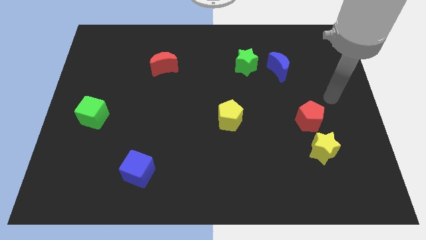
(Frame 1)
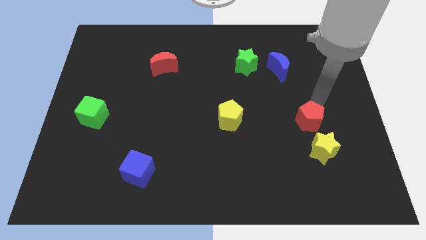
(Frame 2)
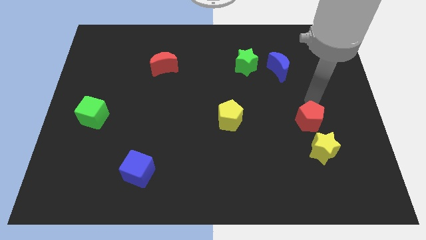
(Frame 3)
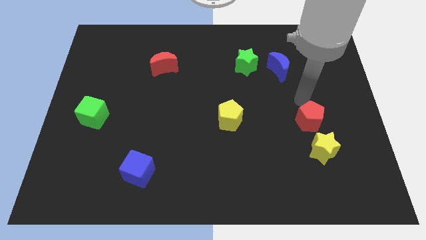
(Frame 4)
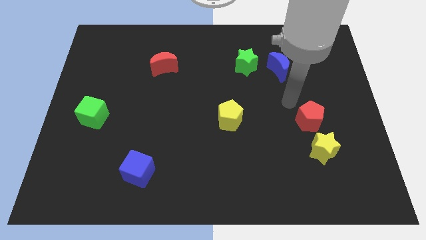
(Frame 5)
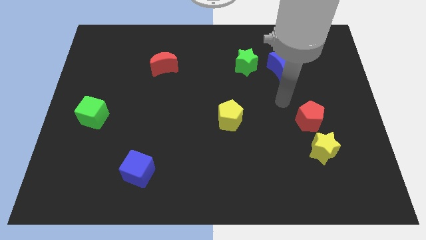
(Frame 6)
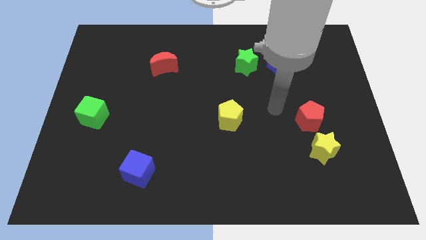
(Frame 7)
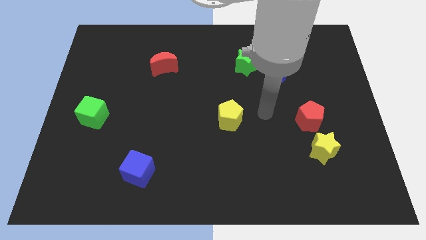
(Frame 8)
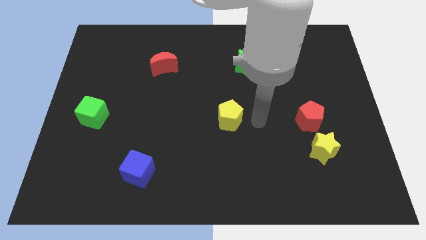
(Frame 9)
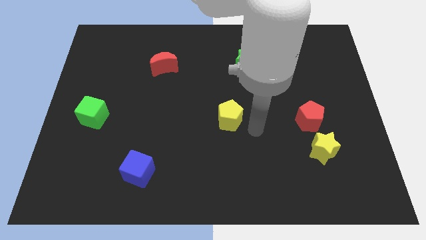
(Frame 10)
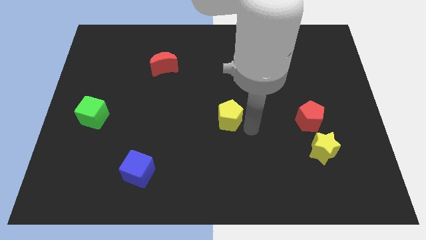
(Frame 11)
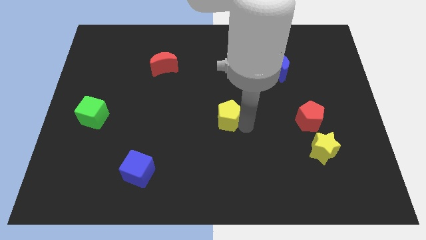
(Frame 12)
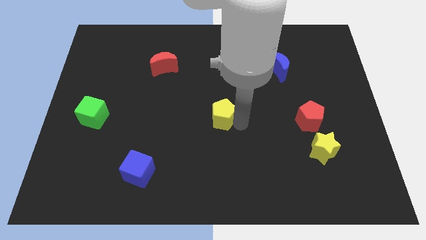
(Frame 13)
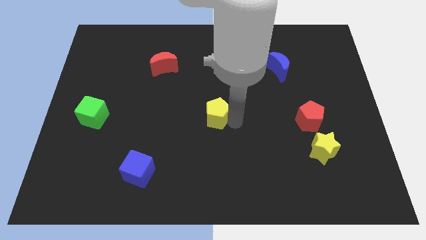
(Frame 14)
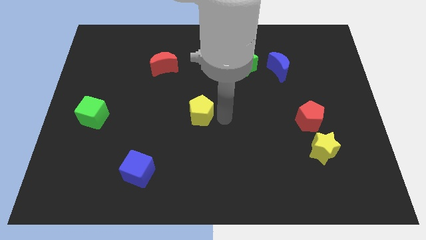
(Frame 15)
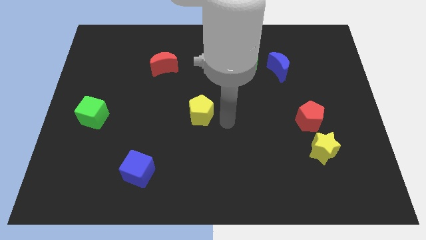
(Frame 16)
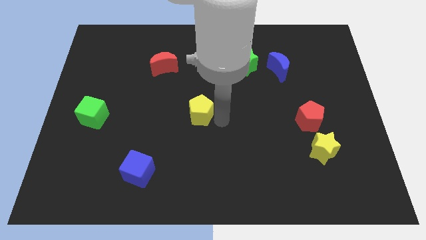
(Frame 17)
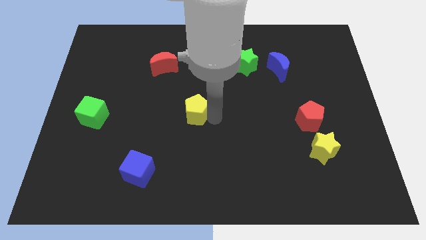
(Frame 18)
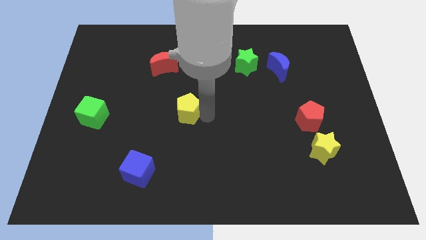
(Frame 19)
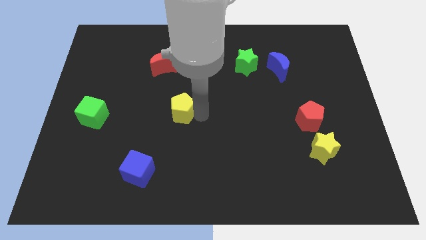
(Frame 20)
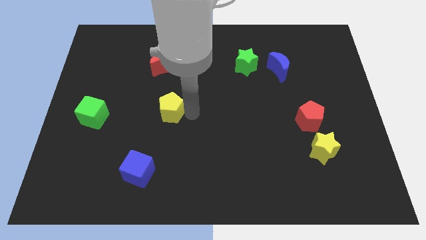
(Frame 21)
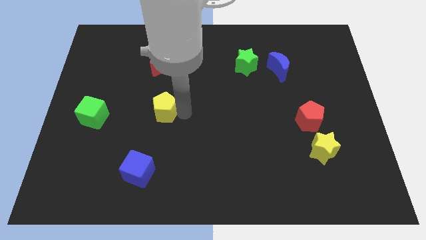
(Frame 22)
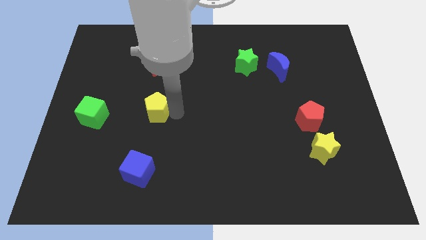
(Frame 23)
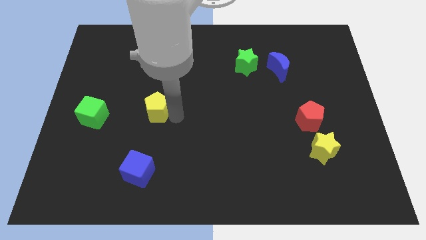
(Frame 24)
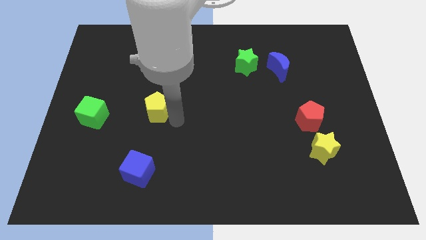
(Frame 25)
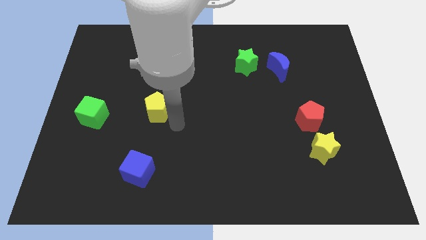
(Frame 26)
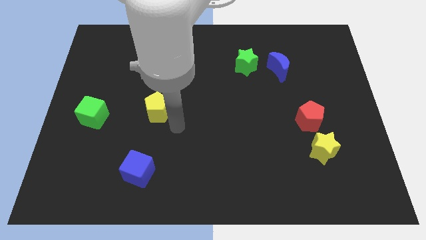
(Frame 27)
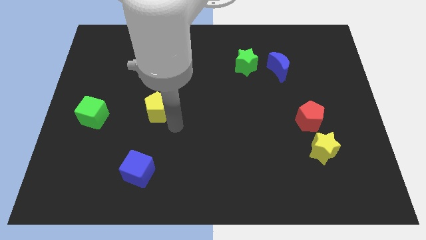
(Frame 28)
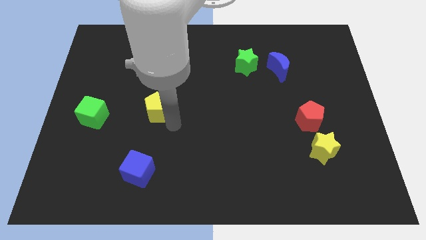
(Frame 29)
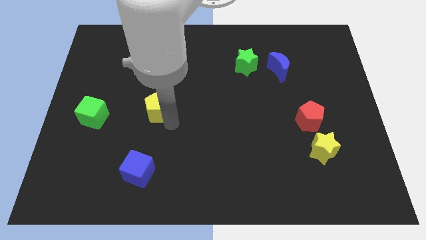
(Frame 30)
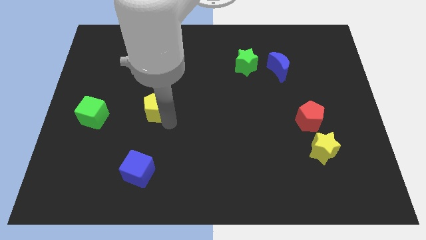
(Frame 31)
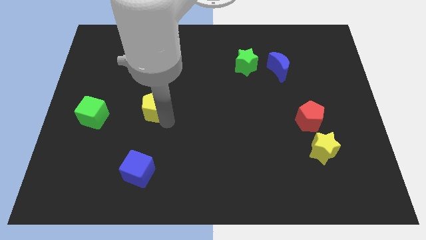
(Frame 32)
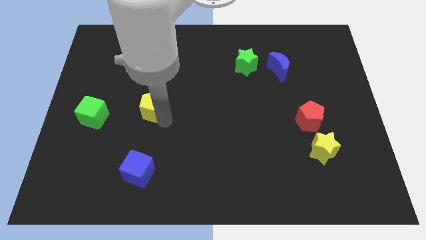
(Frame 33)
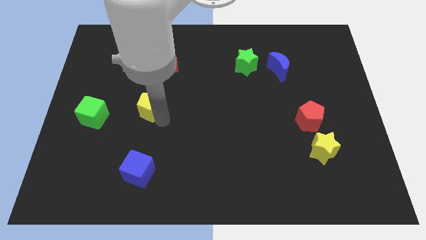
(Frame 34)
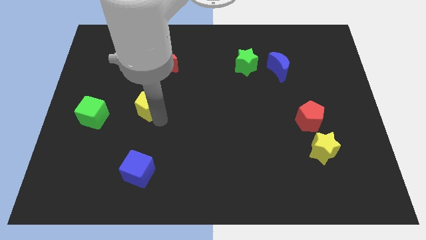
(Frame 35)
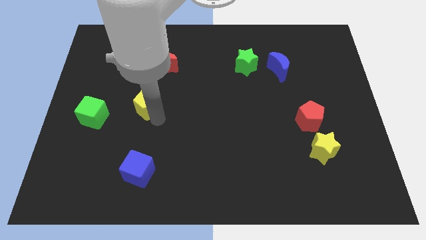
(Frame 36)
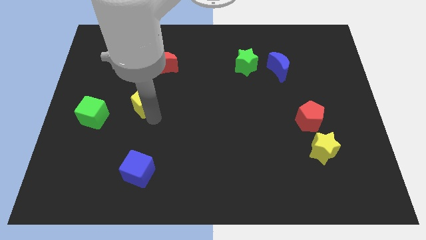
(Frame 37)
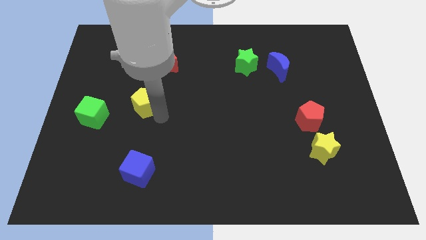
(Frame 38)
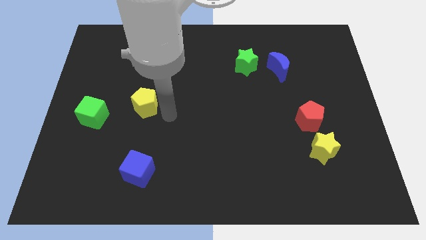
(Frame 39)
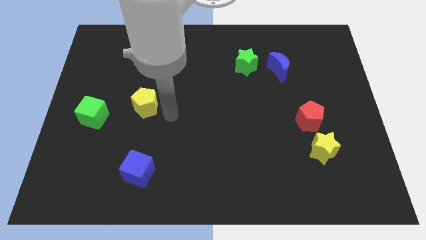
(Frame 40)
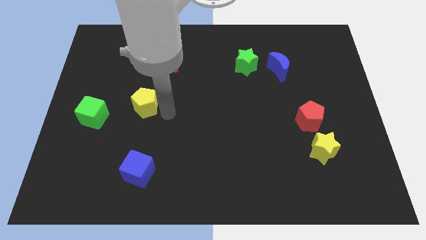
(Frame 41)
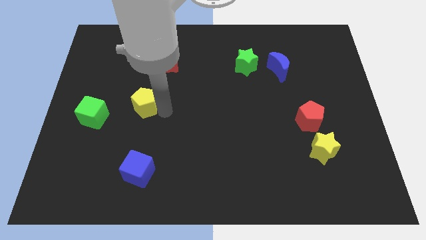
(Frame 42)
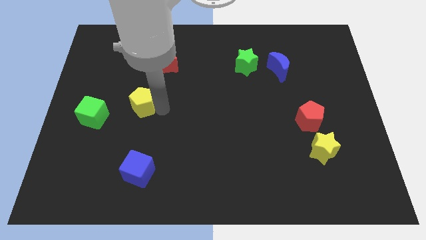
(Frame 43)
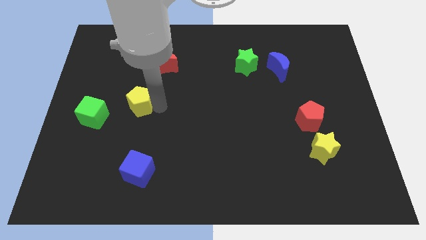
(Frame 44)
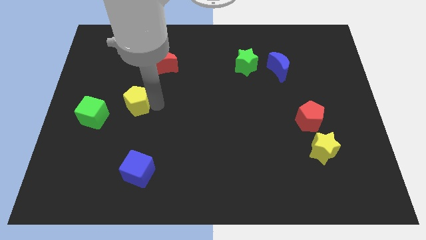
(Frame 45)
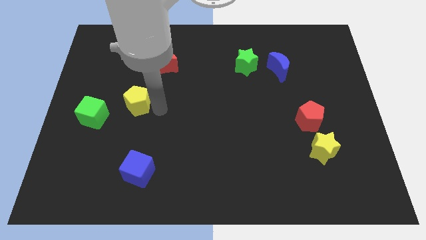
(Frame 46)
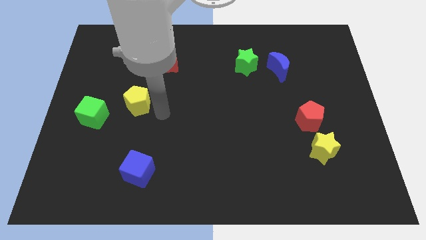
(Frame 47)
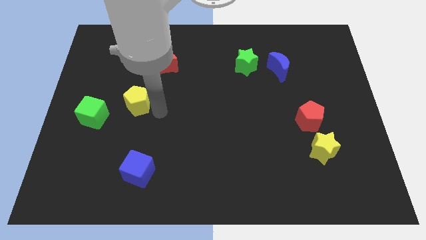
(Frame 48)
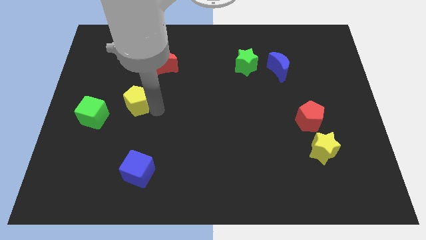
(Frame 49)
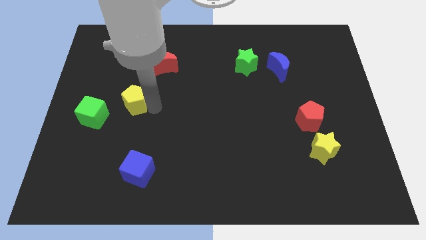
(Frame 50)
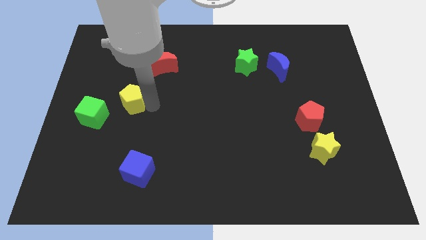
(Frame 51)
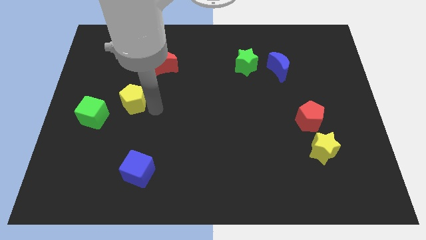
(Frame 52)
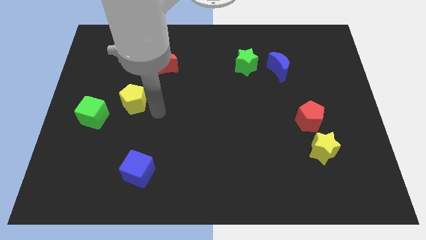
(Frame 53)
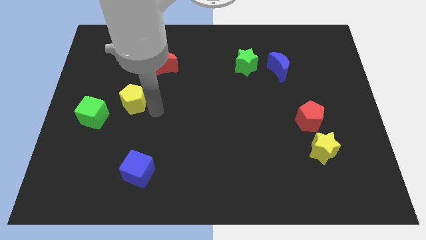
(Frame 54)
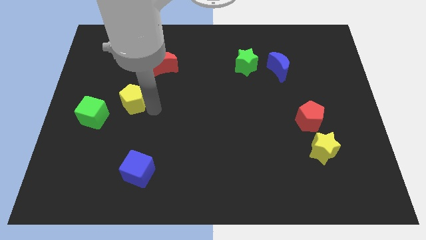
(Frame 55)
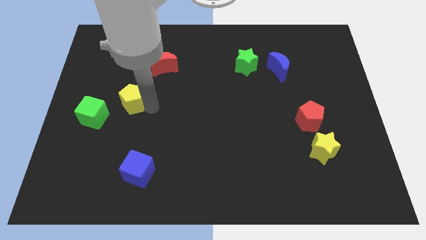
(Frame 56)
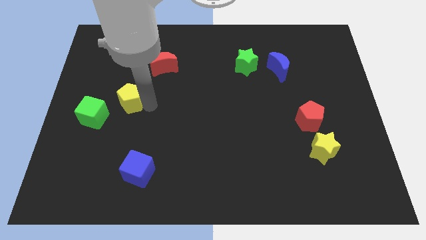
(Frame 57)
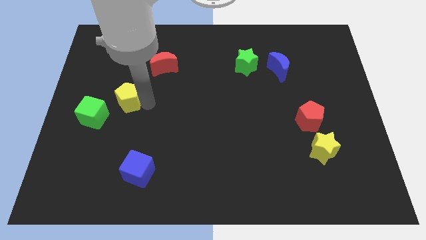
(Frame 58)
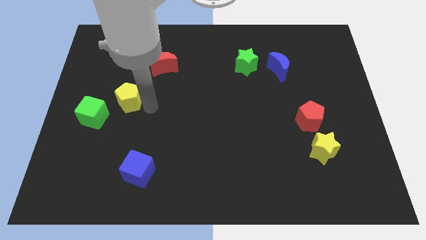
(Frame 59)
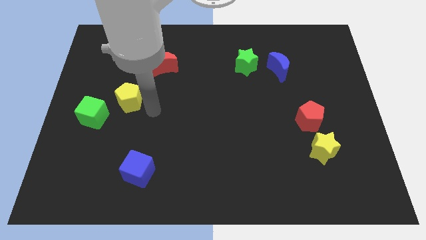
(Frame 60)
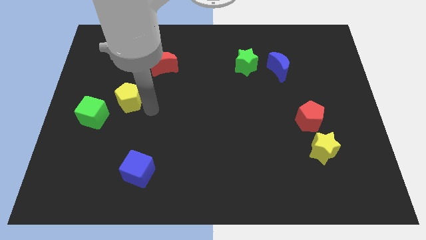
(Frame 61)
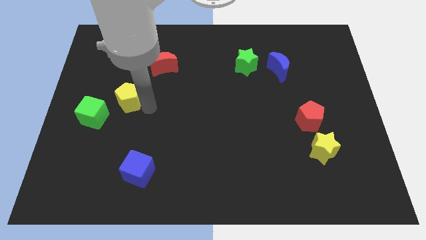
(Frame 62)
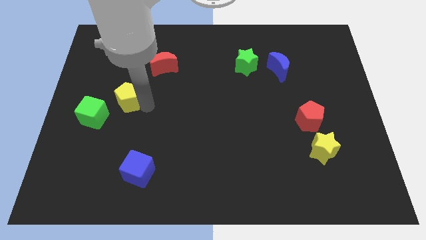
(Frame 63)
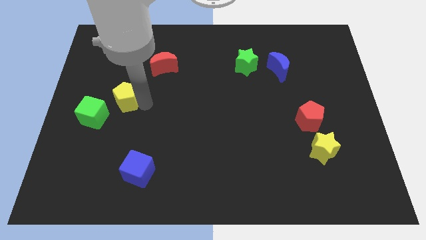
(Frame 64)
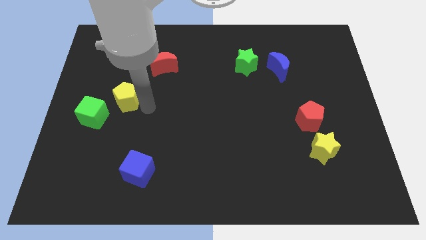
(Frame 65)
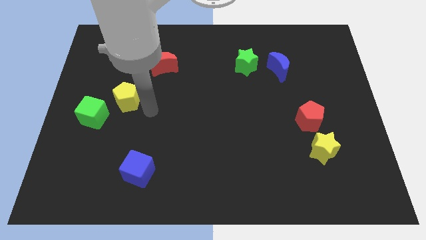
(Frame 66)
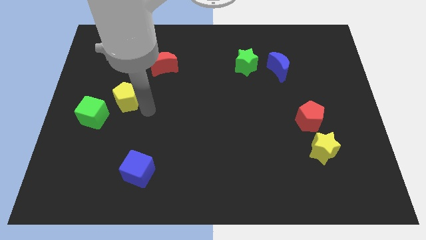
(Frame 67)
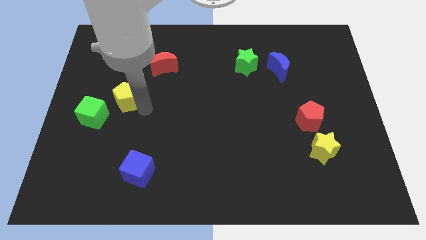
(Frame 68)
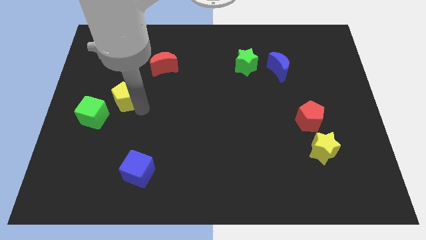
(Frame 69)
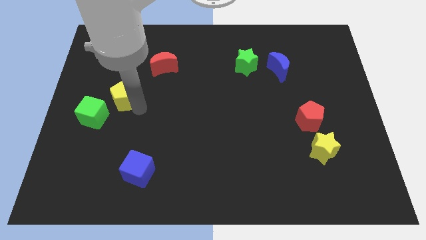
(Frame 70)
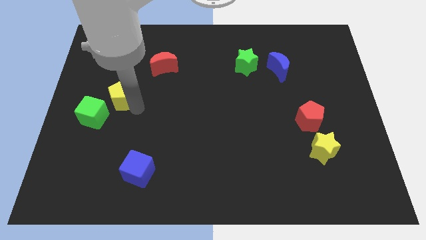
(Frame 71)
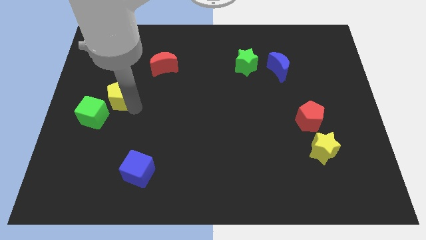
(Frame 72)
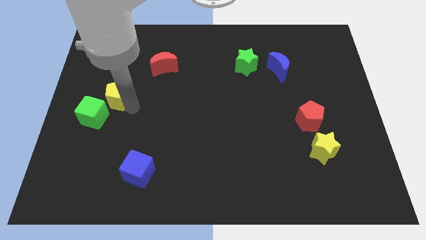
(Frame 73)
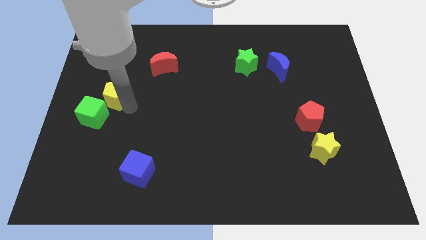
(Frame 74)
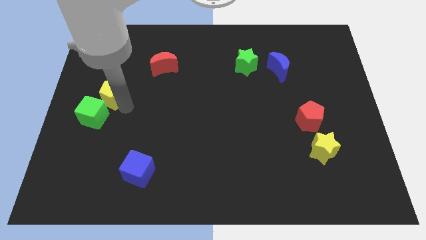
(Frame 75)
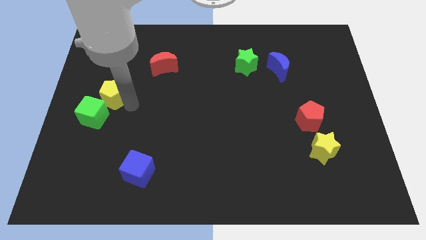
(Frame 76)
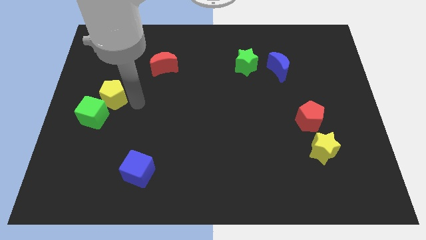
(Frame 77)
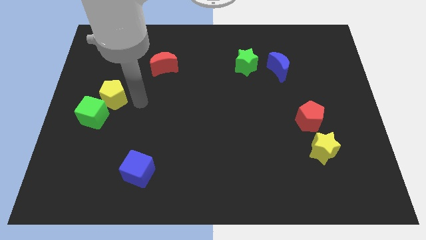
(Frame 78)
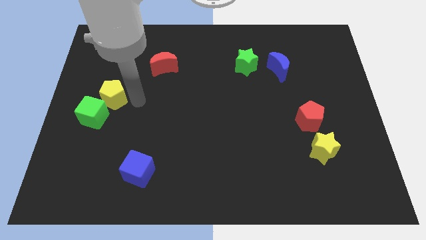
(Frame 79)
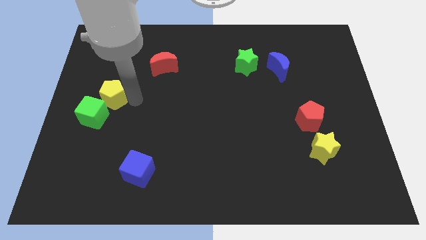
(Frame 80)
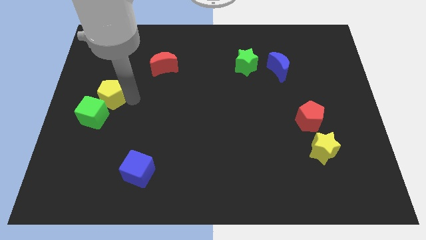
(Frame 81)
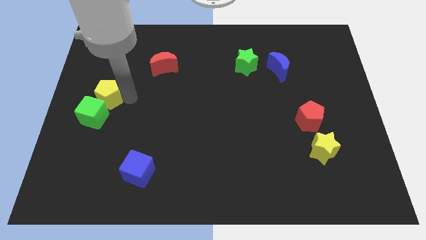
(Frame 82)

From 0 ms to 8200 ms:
slide the yellow pentagon to the left side of the board
